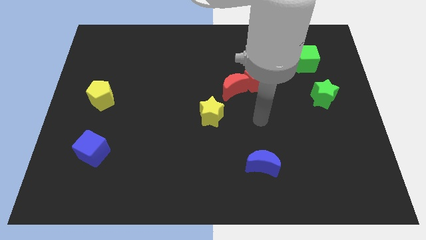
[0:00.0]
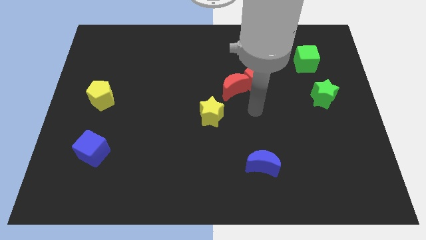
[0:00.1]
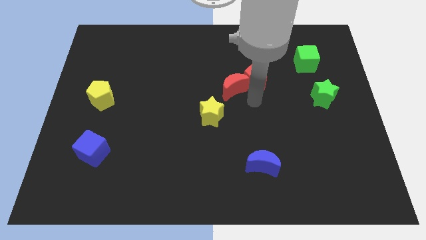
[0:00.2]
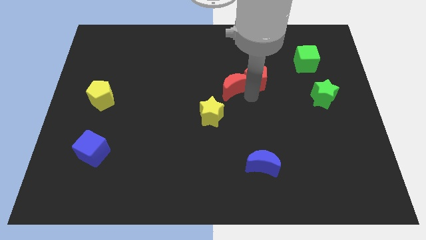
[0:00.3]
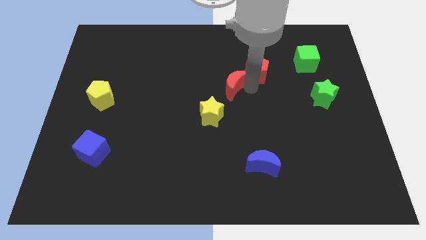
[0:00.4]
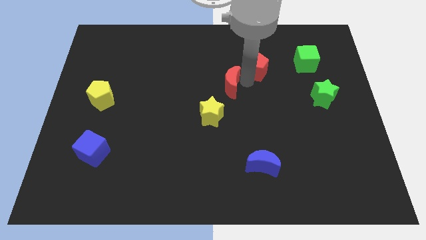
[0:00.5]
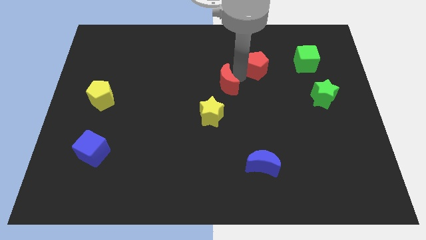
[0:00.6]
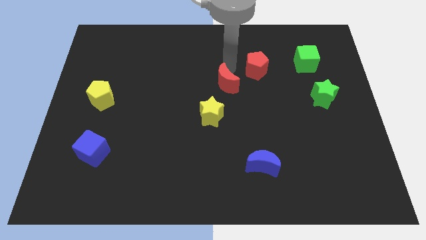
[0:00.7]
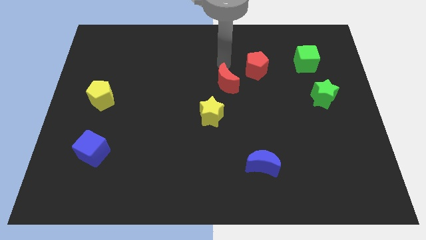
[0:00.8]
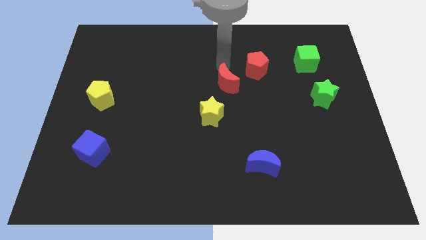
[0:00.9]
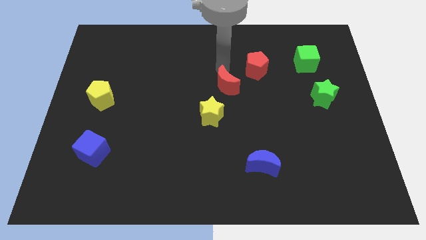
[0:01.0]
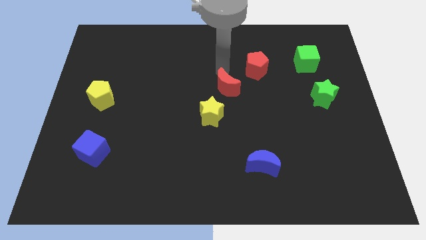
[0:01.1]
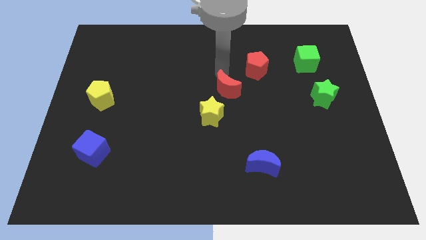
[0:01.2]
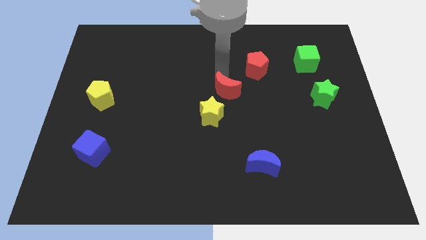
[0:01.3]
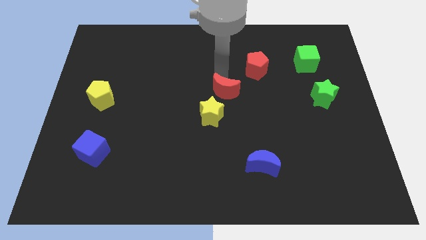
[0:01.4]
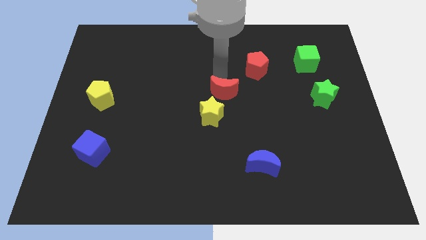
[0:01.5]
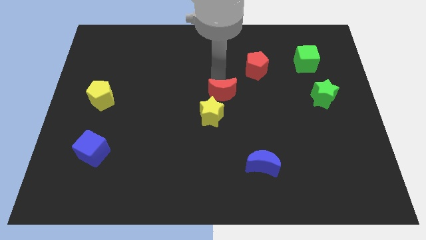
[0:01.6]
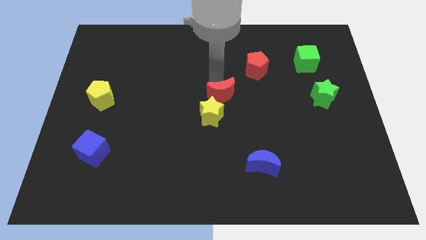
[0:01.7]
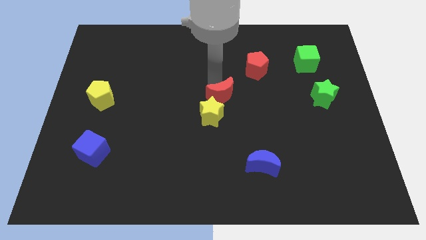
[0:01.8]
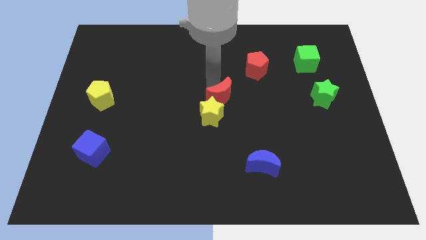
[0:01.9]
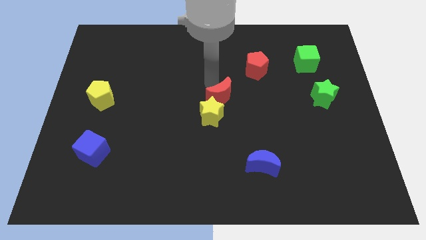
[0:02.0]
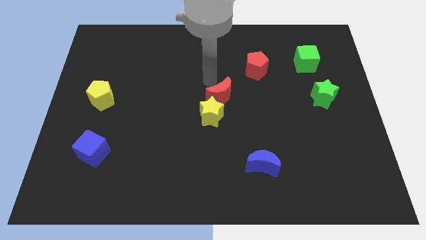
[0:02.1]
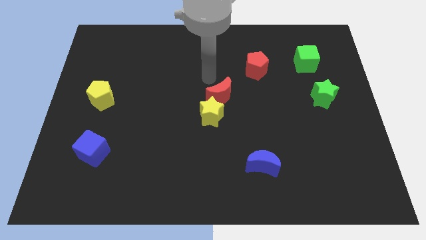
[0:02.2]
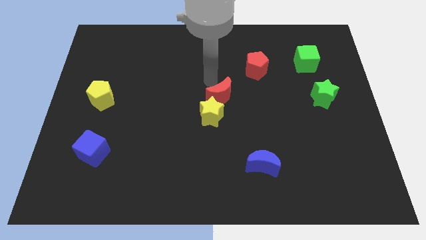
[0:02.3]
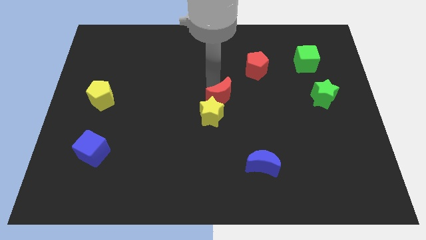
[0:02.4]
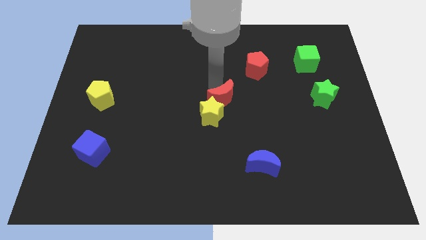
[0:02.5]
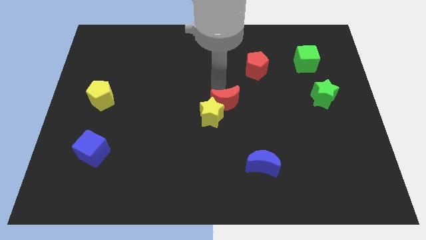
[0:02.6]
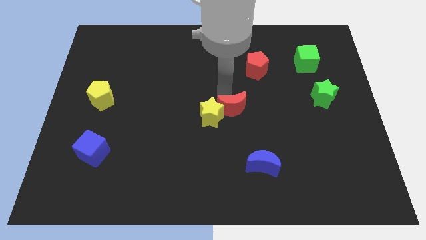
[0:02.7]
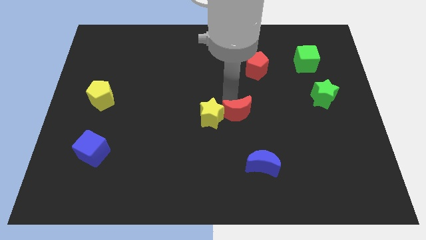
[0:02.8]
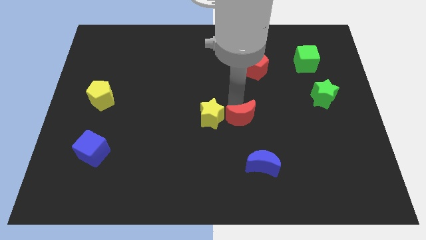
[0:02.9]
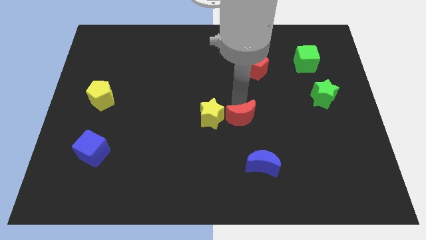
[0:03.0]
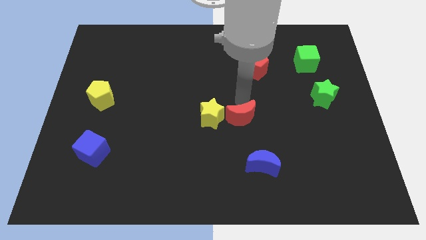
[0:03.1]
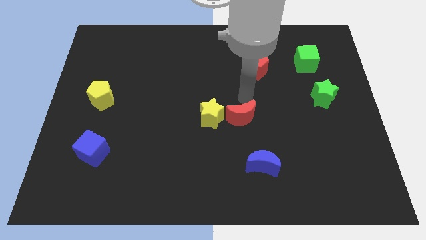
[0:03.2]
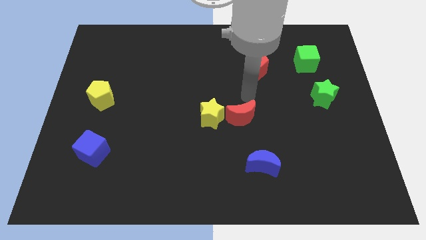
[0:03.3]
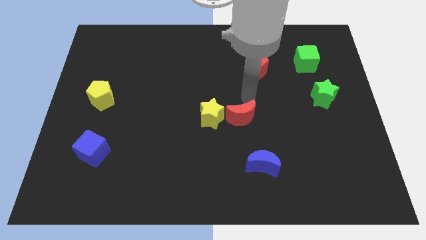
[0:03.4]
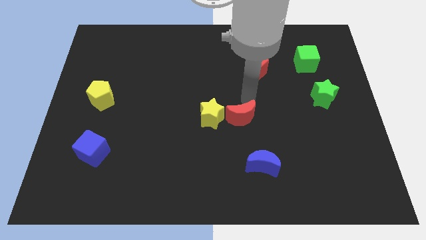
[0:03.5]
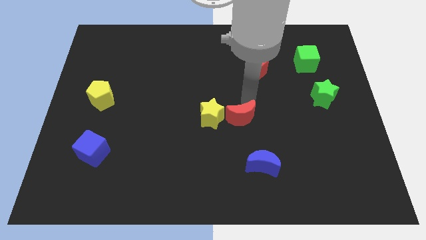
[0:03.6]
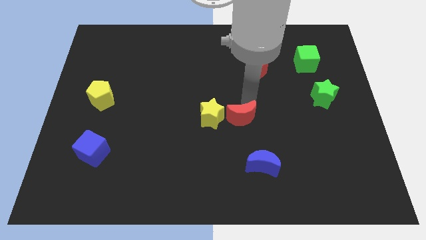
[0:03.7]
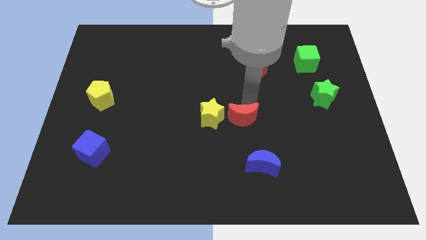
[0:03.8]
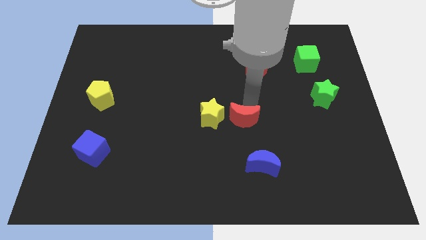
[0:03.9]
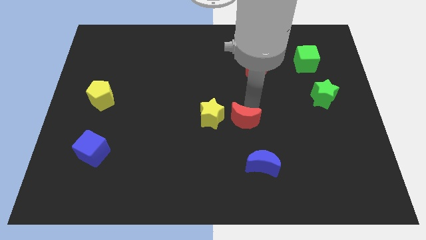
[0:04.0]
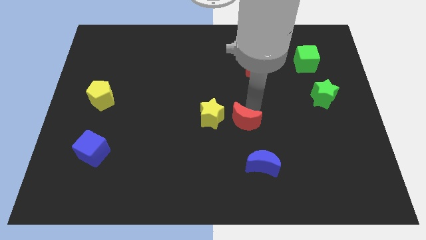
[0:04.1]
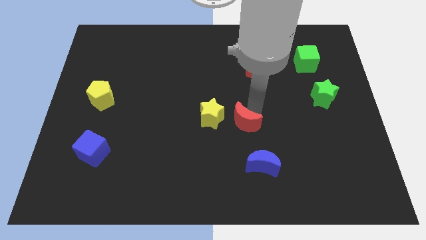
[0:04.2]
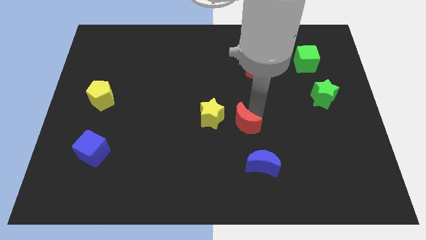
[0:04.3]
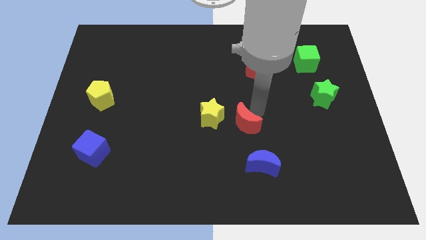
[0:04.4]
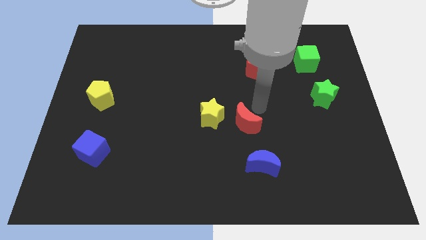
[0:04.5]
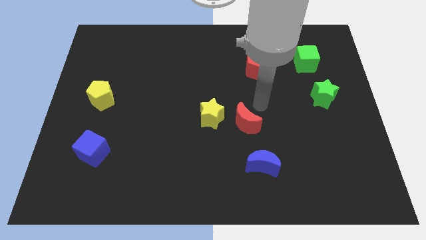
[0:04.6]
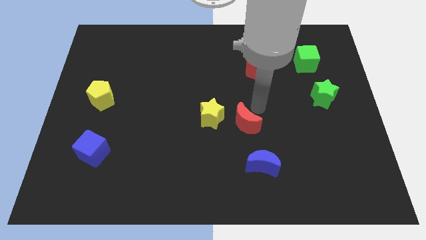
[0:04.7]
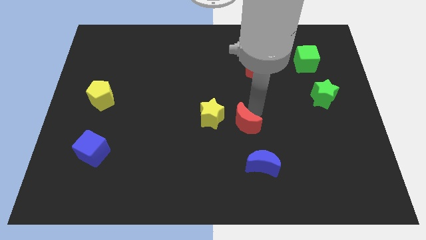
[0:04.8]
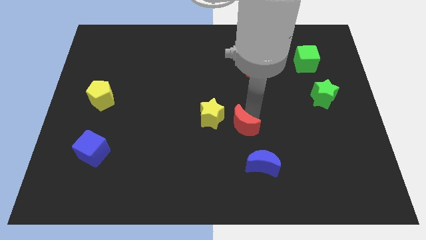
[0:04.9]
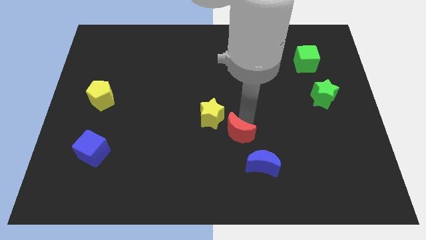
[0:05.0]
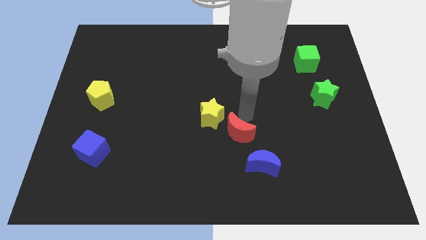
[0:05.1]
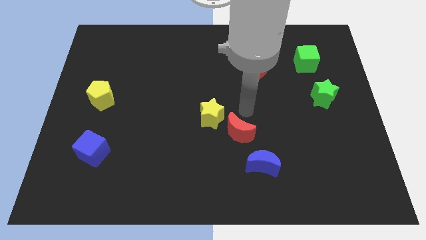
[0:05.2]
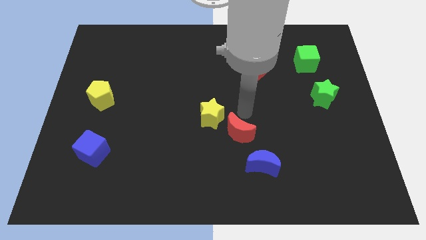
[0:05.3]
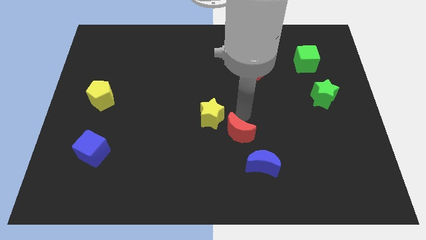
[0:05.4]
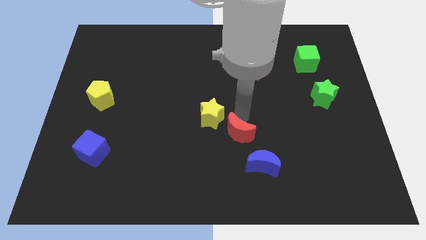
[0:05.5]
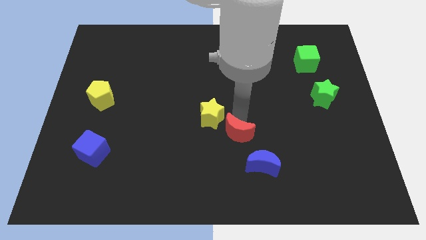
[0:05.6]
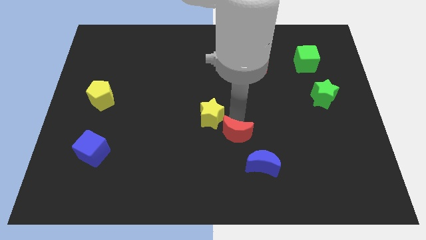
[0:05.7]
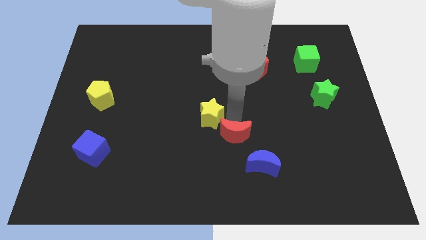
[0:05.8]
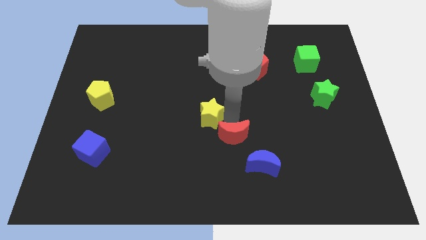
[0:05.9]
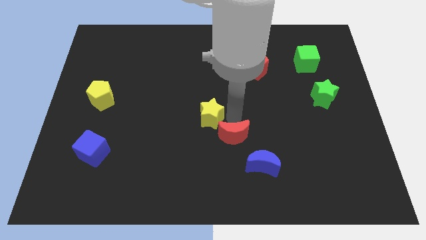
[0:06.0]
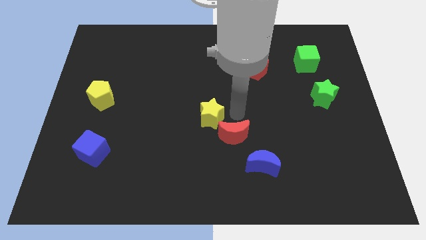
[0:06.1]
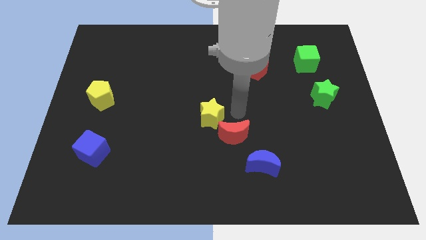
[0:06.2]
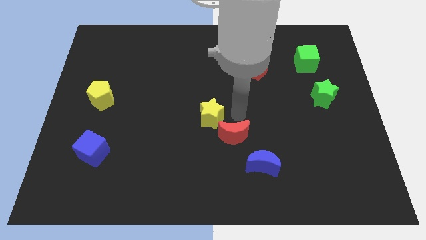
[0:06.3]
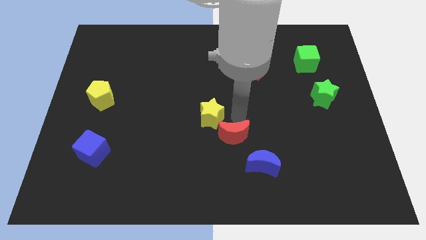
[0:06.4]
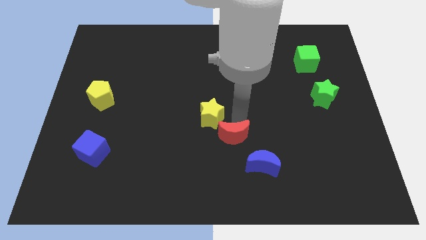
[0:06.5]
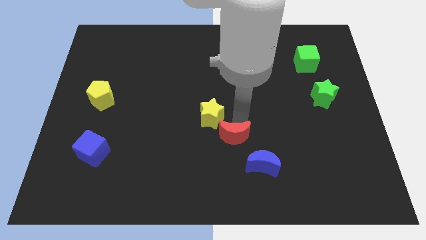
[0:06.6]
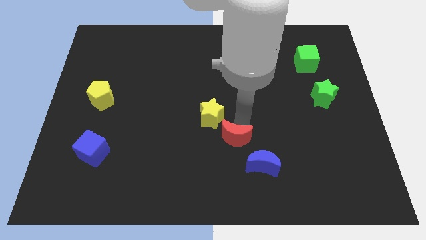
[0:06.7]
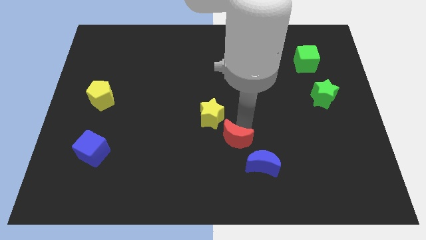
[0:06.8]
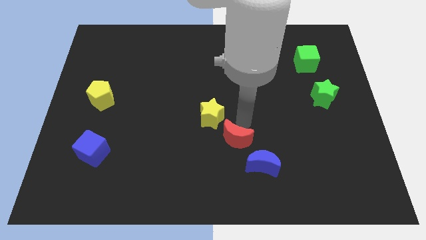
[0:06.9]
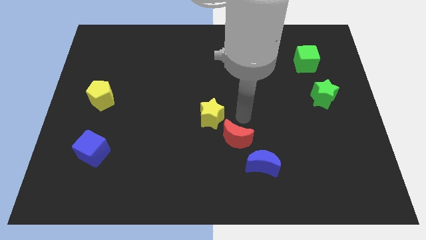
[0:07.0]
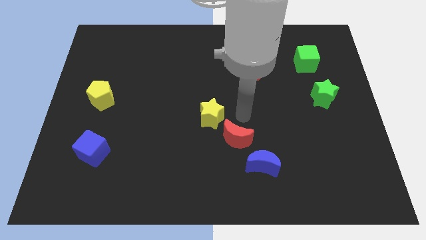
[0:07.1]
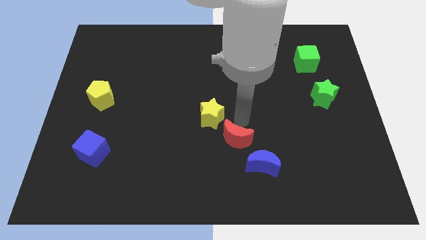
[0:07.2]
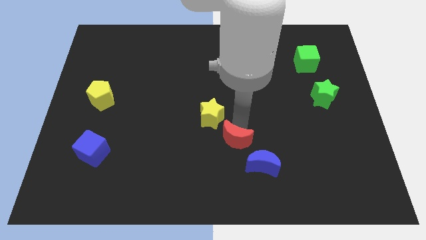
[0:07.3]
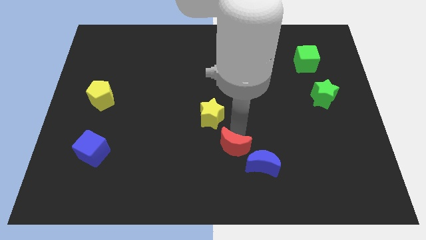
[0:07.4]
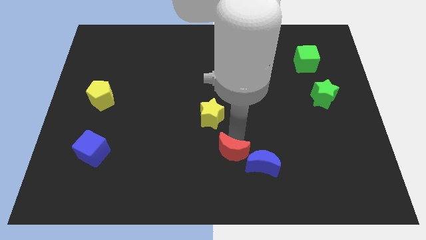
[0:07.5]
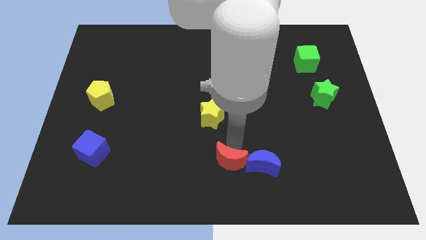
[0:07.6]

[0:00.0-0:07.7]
push the red moon to the bottom
